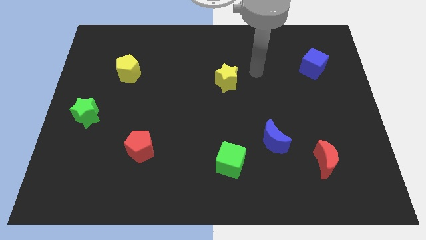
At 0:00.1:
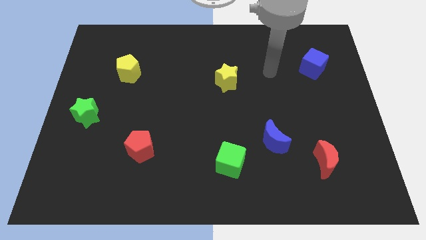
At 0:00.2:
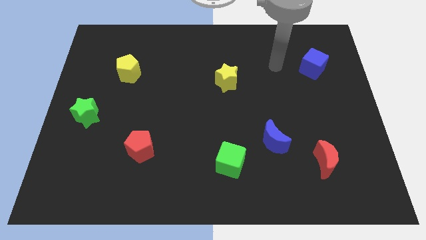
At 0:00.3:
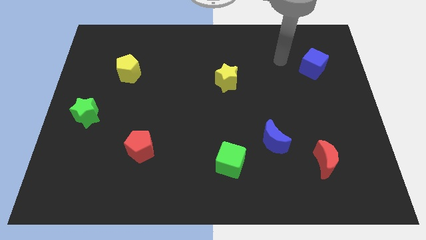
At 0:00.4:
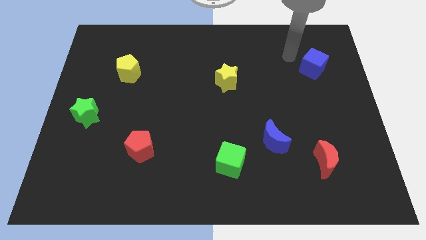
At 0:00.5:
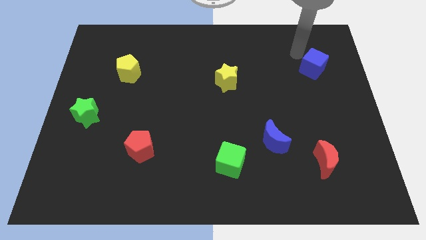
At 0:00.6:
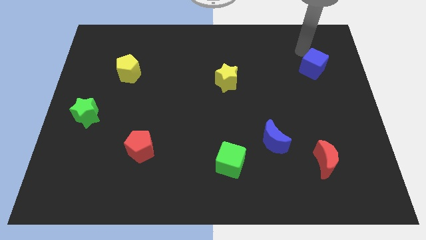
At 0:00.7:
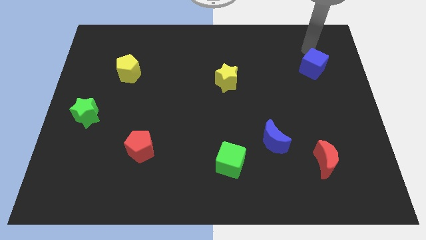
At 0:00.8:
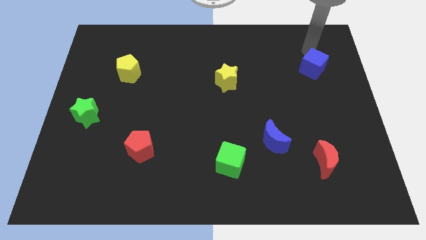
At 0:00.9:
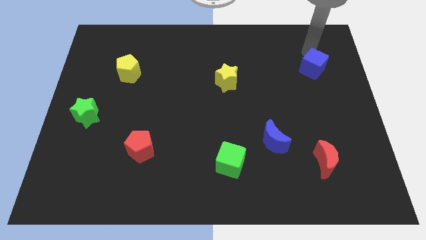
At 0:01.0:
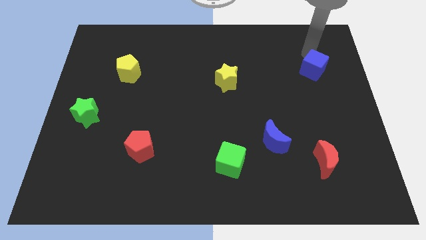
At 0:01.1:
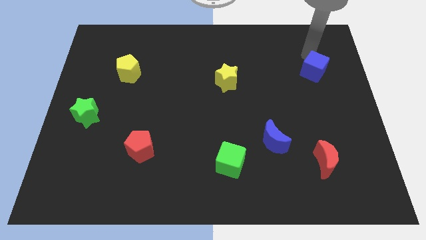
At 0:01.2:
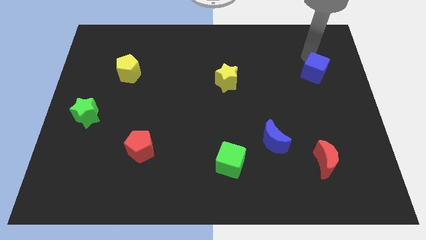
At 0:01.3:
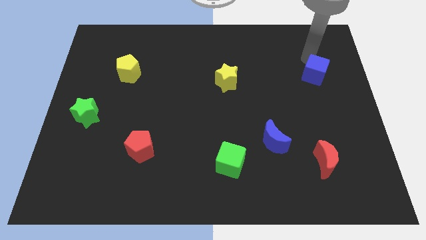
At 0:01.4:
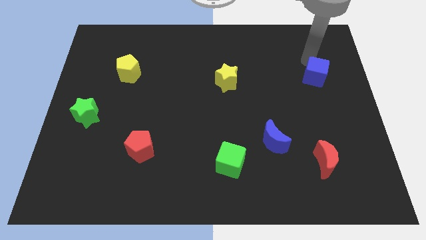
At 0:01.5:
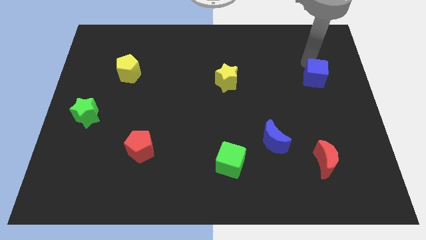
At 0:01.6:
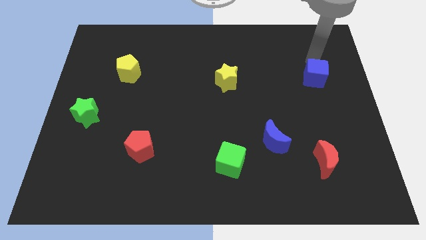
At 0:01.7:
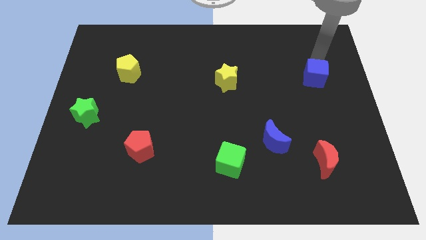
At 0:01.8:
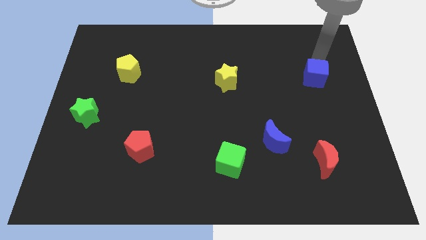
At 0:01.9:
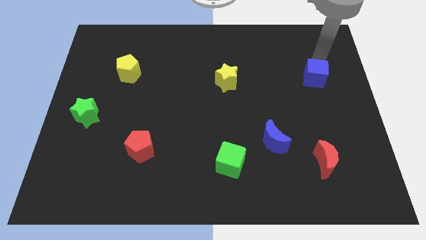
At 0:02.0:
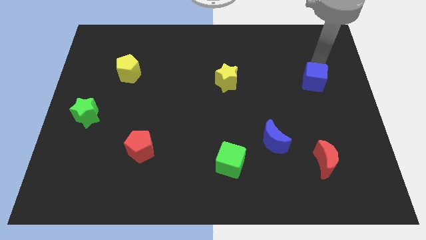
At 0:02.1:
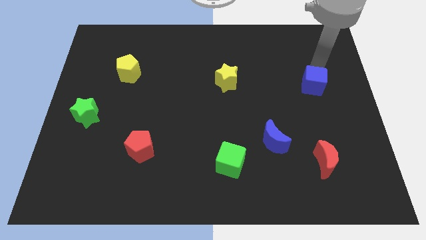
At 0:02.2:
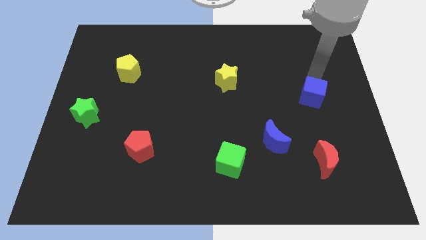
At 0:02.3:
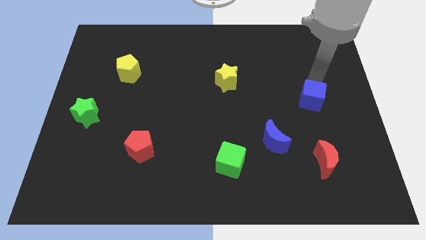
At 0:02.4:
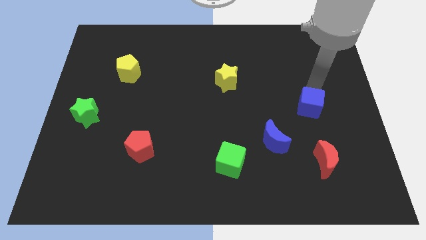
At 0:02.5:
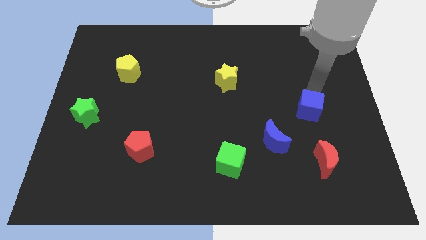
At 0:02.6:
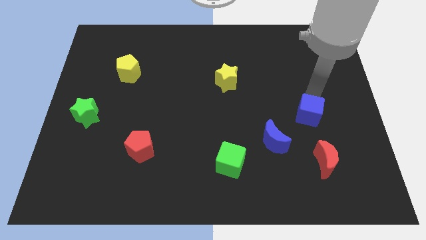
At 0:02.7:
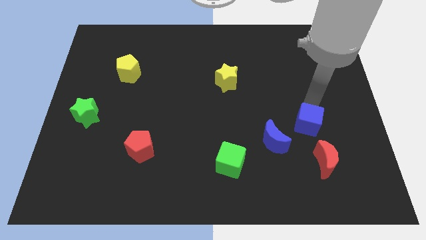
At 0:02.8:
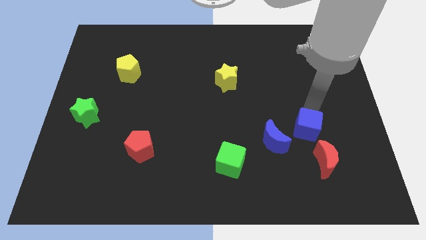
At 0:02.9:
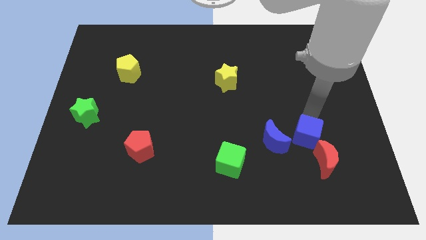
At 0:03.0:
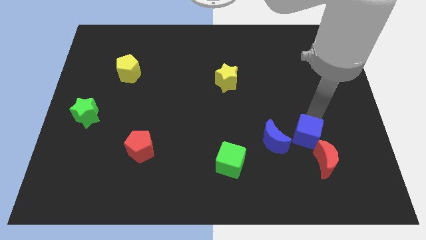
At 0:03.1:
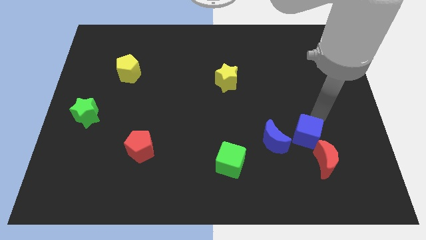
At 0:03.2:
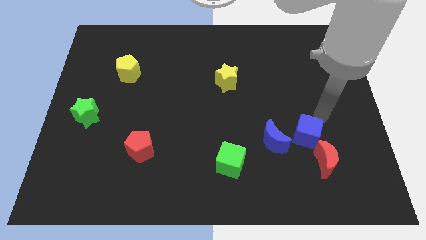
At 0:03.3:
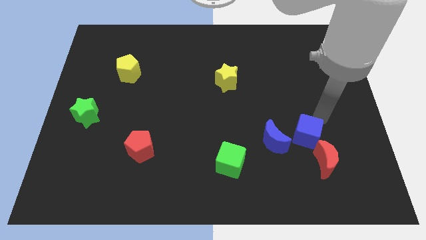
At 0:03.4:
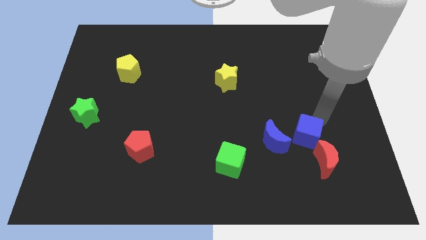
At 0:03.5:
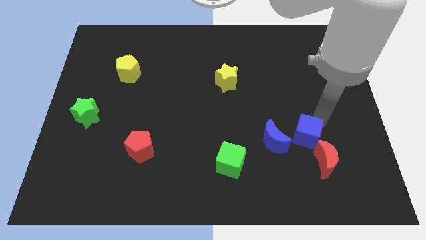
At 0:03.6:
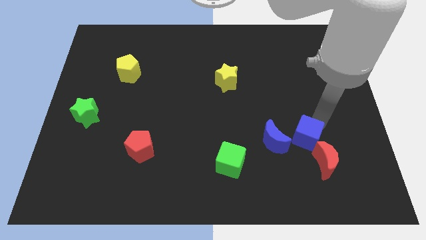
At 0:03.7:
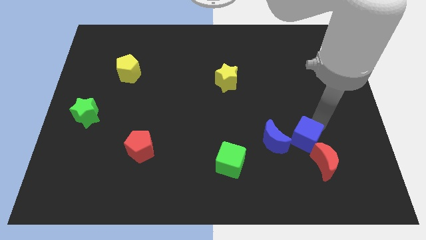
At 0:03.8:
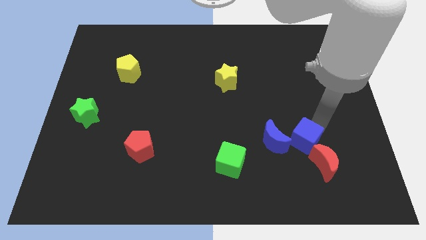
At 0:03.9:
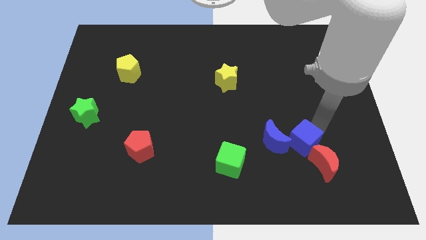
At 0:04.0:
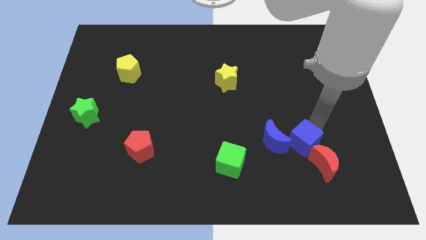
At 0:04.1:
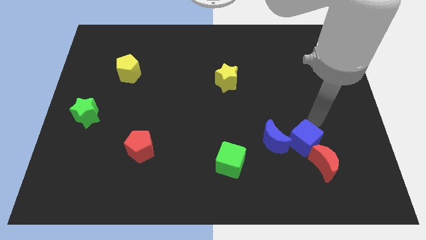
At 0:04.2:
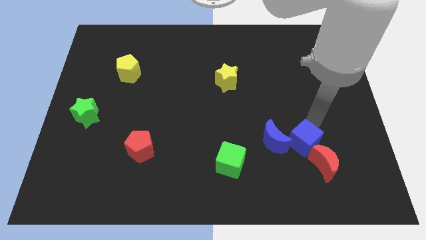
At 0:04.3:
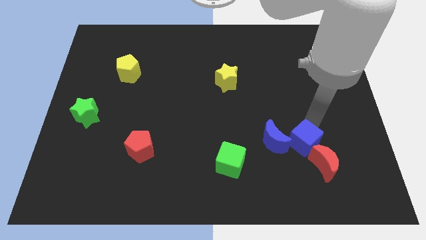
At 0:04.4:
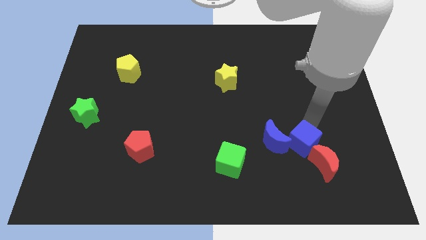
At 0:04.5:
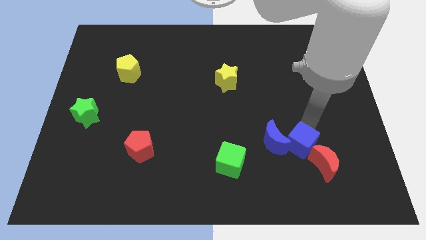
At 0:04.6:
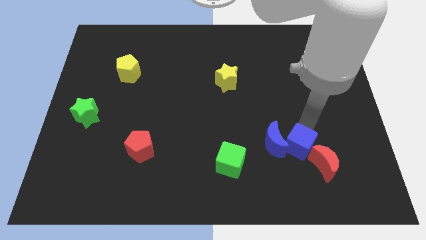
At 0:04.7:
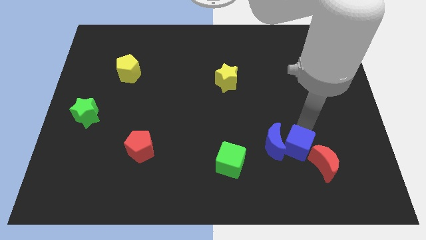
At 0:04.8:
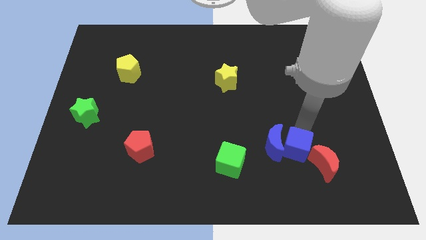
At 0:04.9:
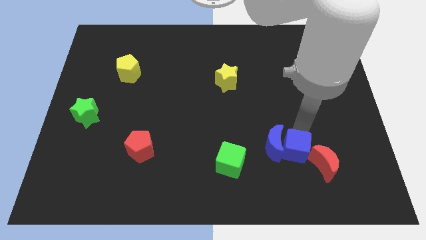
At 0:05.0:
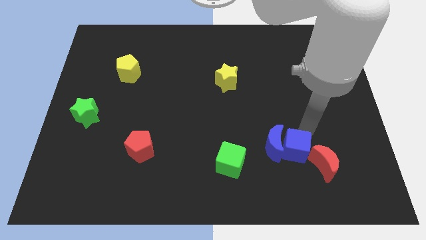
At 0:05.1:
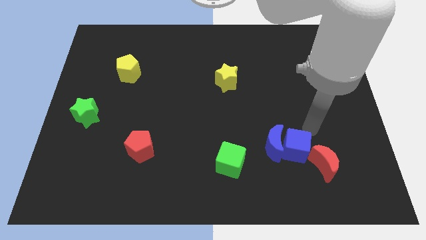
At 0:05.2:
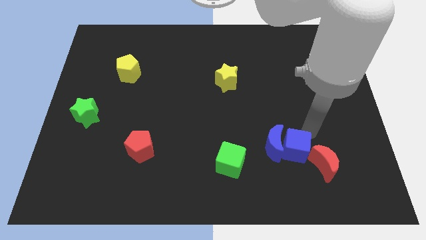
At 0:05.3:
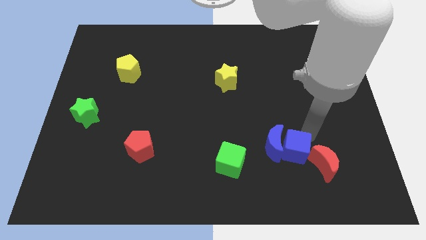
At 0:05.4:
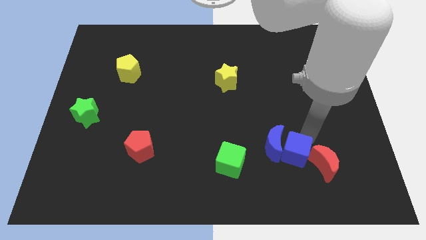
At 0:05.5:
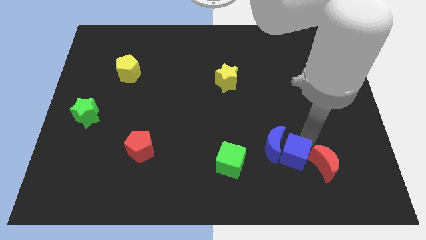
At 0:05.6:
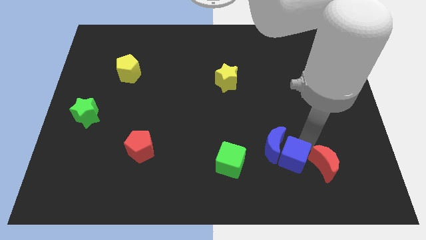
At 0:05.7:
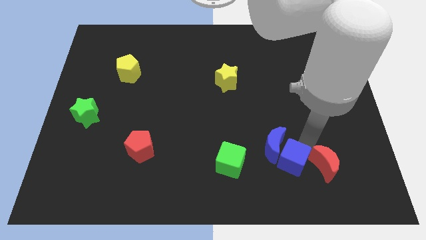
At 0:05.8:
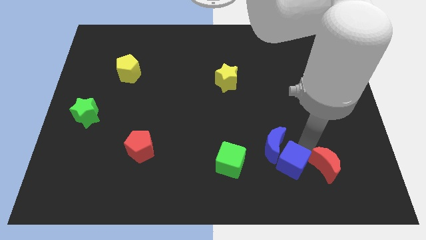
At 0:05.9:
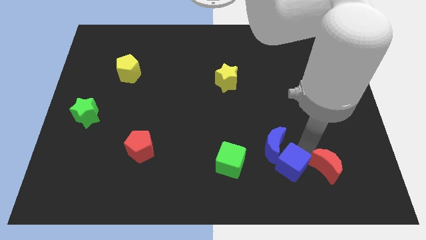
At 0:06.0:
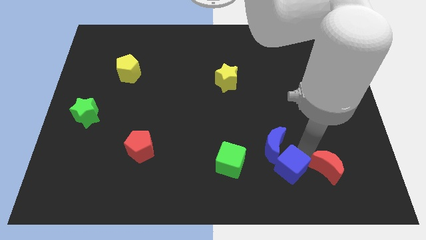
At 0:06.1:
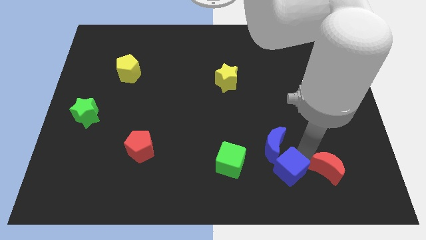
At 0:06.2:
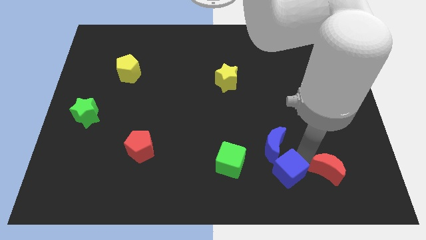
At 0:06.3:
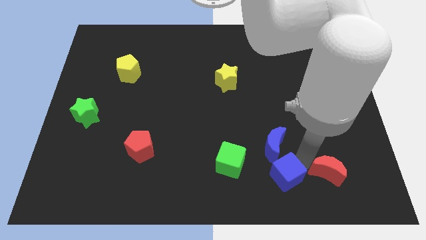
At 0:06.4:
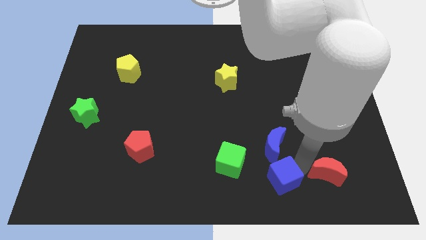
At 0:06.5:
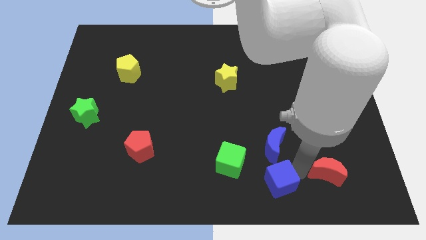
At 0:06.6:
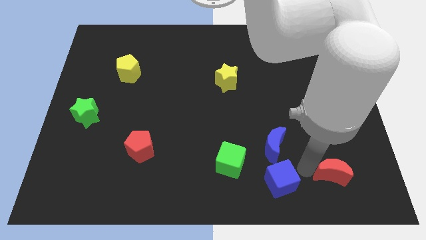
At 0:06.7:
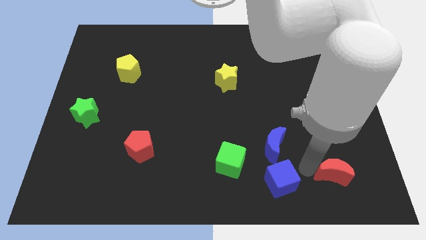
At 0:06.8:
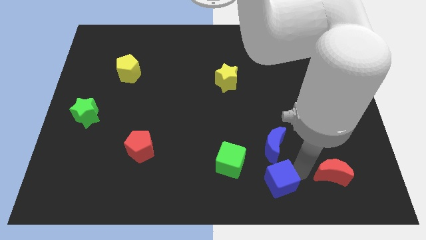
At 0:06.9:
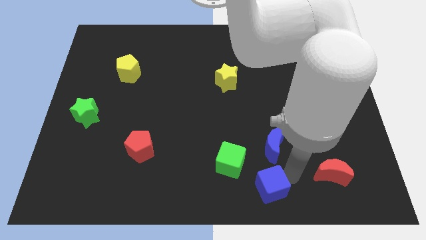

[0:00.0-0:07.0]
slide the blue cube to the bottom

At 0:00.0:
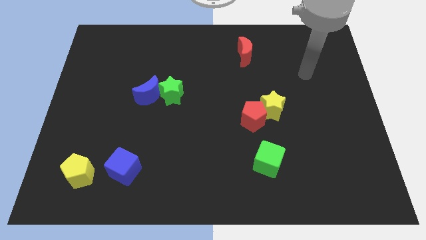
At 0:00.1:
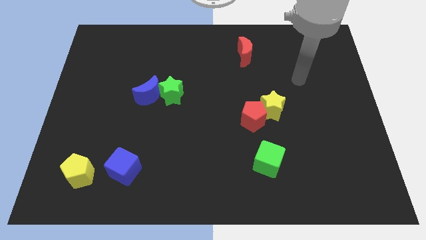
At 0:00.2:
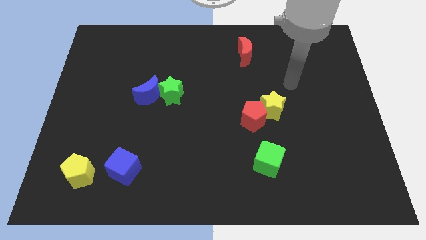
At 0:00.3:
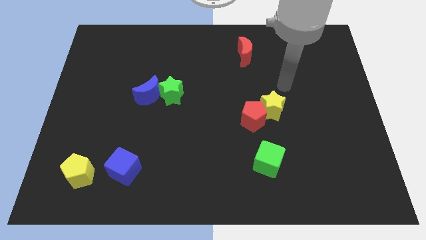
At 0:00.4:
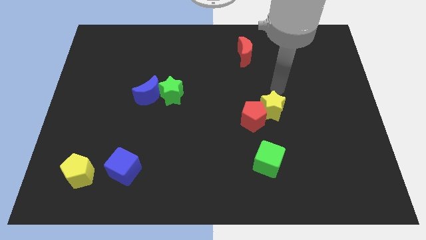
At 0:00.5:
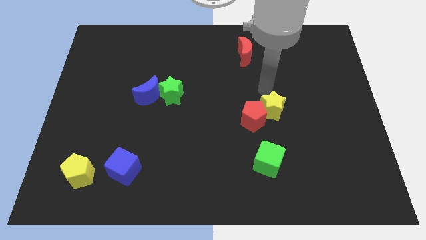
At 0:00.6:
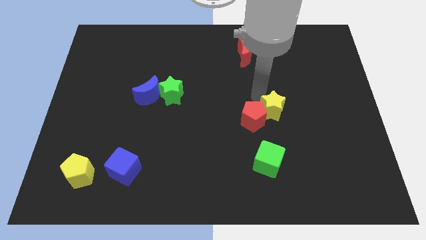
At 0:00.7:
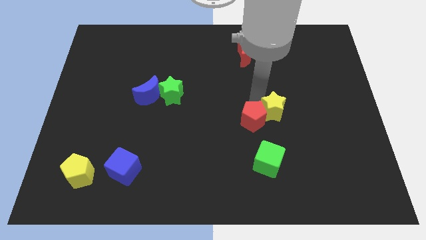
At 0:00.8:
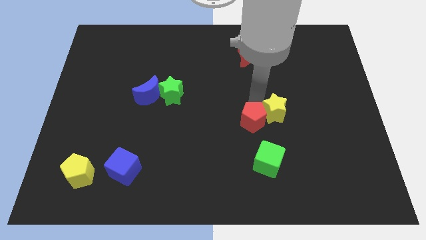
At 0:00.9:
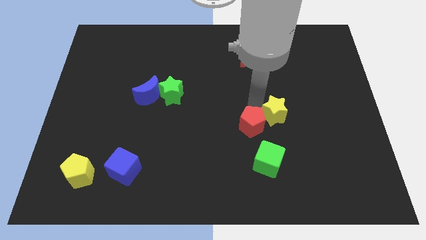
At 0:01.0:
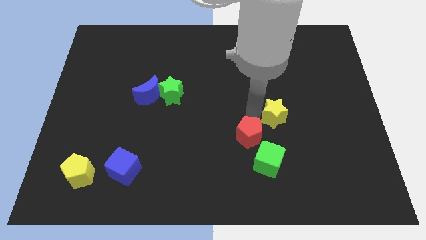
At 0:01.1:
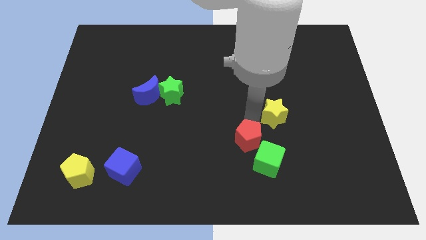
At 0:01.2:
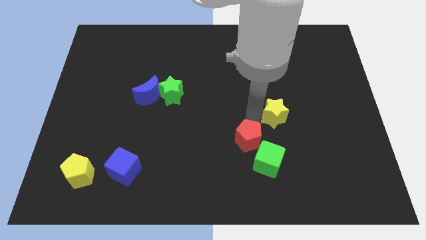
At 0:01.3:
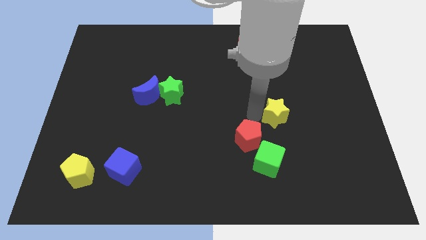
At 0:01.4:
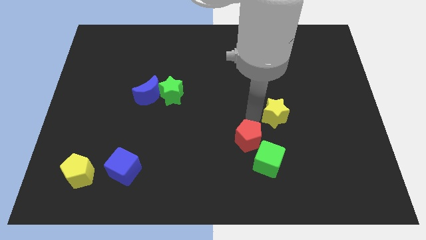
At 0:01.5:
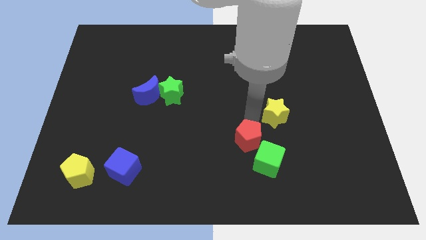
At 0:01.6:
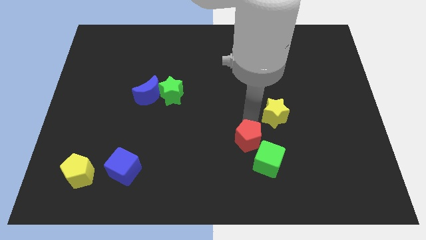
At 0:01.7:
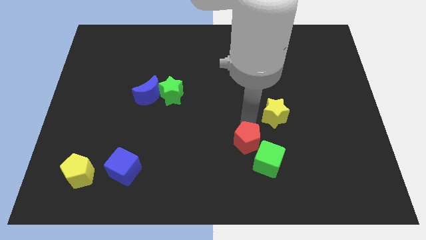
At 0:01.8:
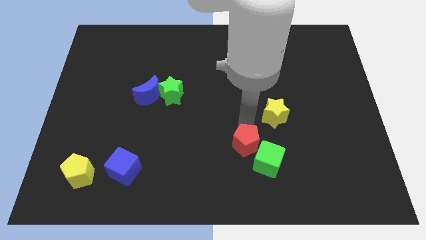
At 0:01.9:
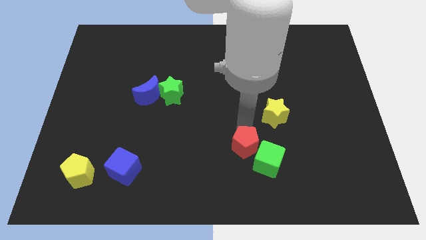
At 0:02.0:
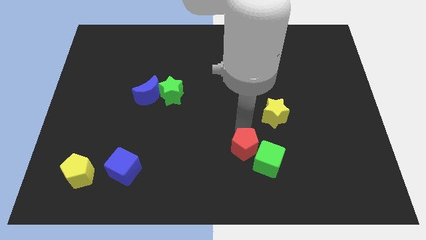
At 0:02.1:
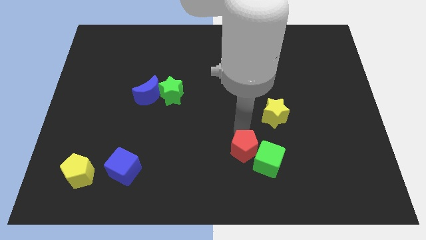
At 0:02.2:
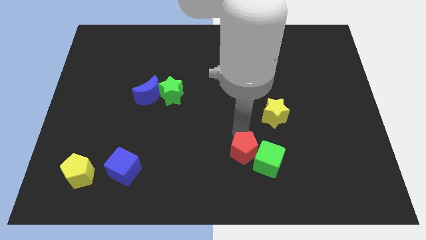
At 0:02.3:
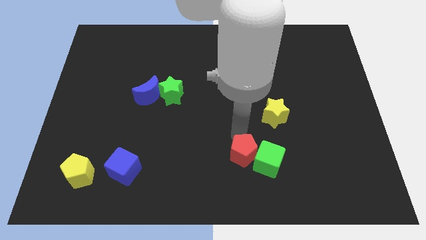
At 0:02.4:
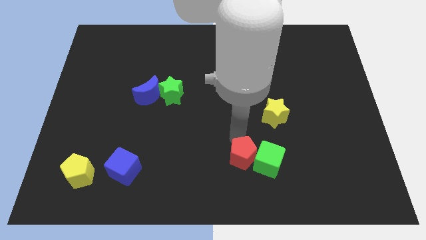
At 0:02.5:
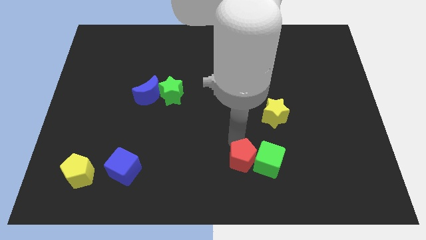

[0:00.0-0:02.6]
put the red pentagon to the bottom side
